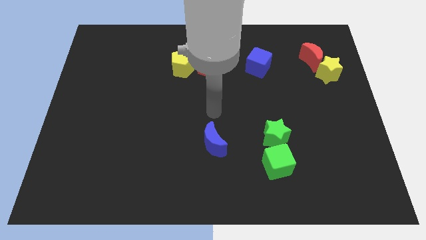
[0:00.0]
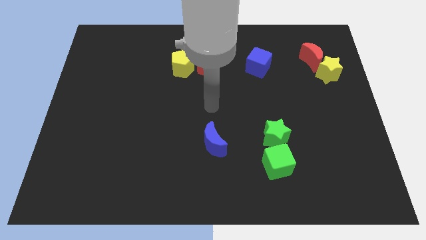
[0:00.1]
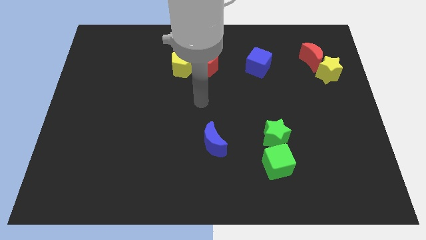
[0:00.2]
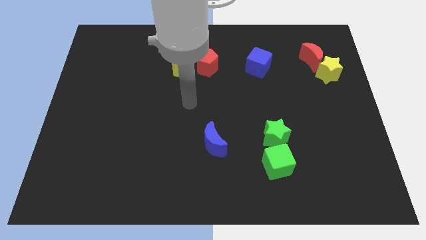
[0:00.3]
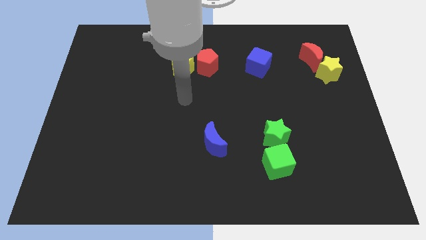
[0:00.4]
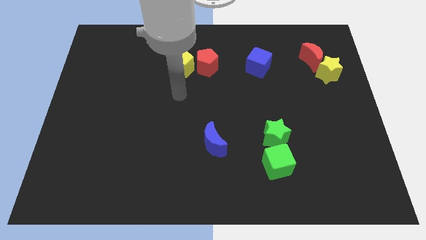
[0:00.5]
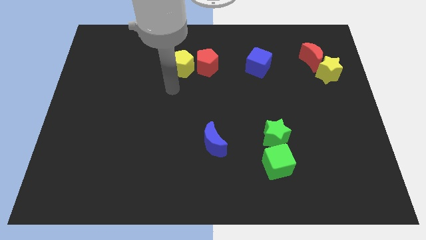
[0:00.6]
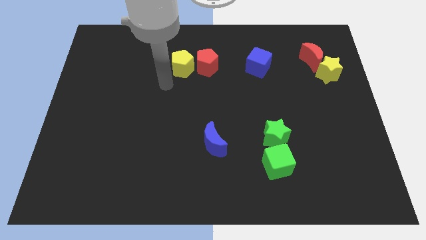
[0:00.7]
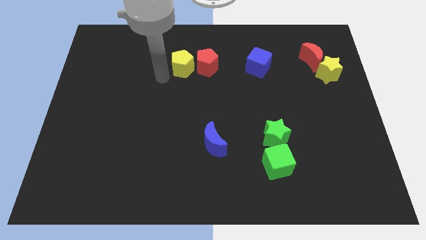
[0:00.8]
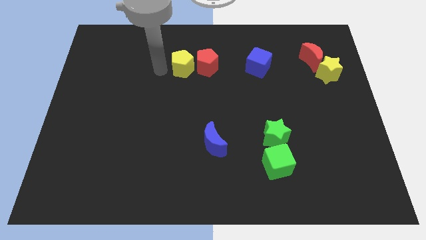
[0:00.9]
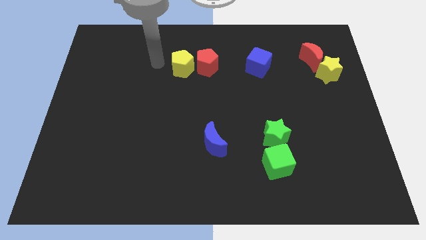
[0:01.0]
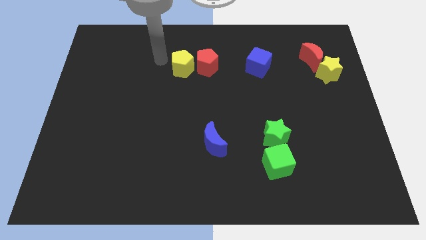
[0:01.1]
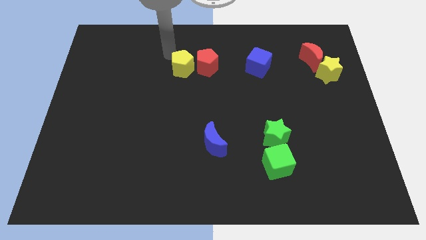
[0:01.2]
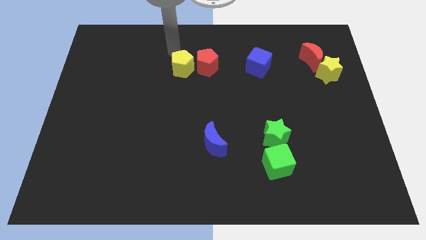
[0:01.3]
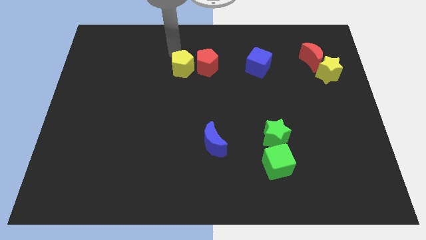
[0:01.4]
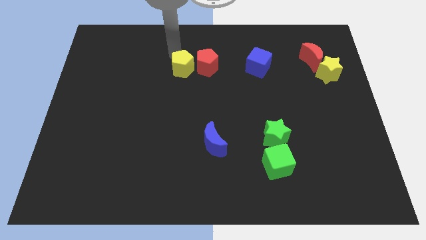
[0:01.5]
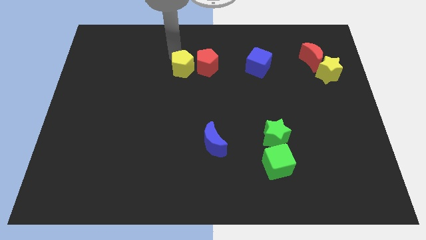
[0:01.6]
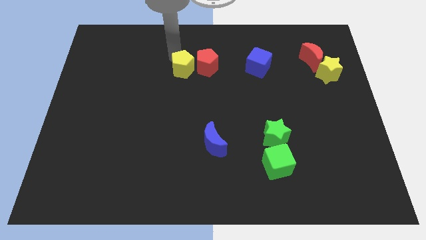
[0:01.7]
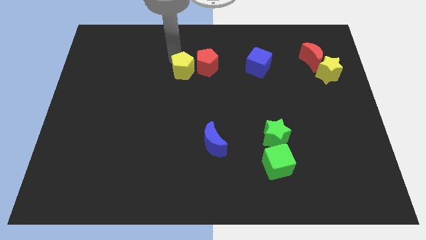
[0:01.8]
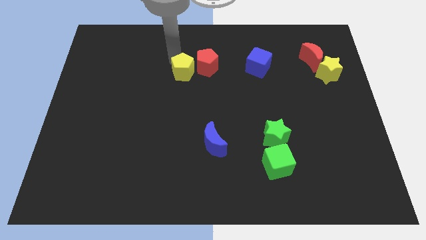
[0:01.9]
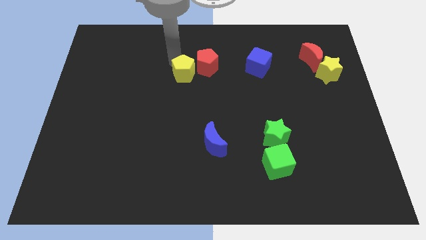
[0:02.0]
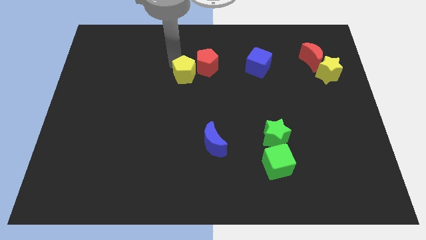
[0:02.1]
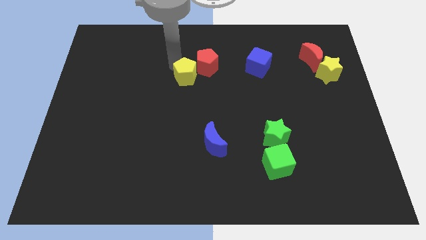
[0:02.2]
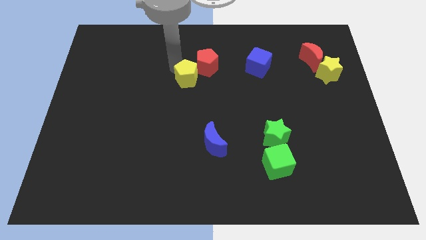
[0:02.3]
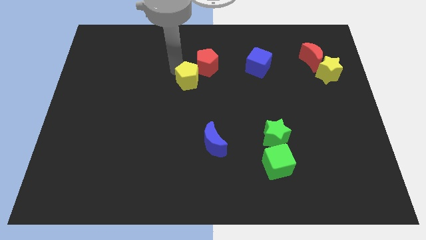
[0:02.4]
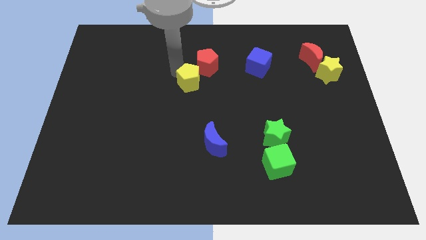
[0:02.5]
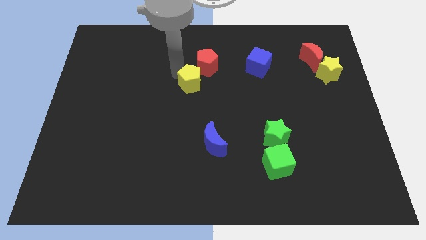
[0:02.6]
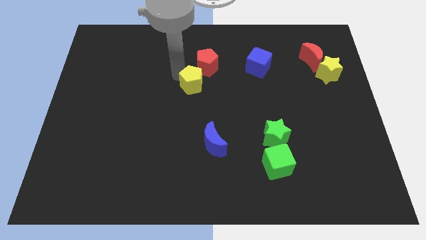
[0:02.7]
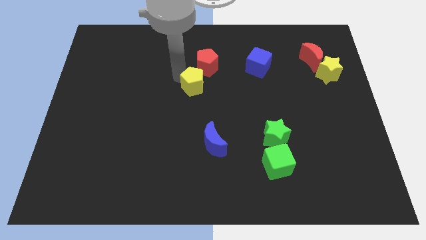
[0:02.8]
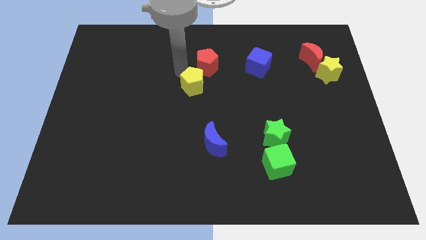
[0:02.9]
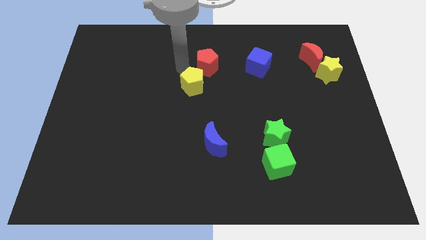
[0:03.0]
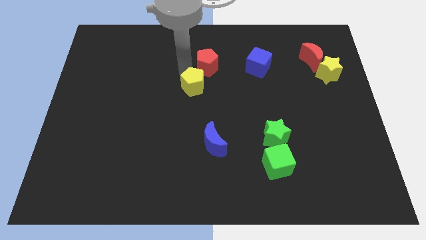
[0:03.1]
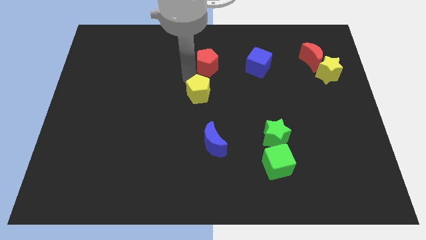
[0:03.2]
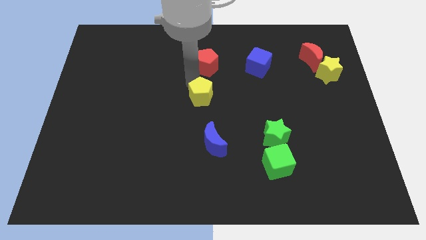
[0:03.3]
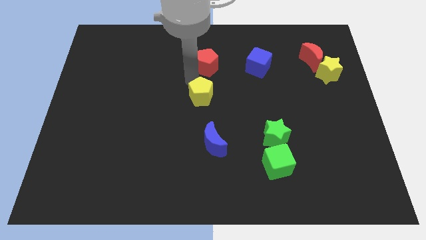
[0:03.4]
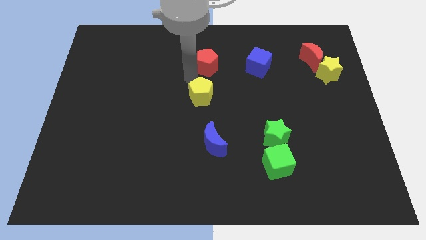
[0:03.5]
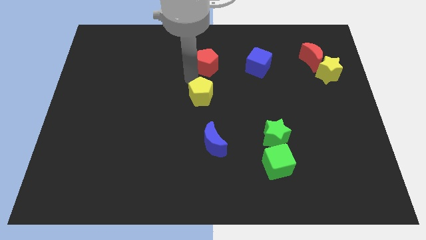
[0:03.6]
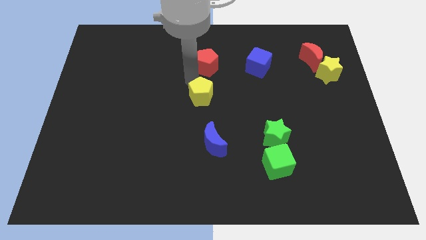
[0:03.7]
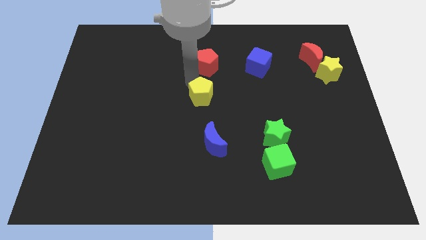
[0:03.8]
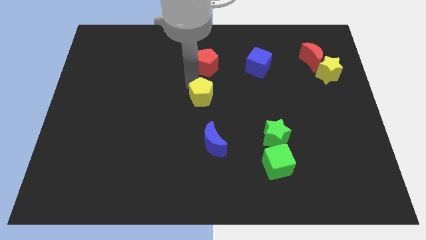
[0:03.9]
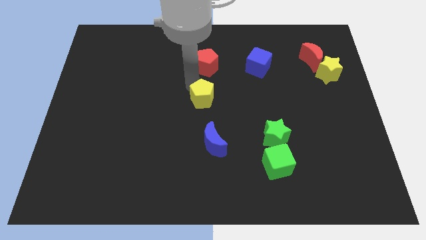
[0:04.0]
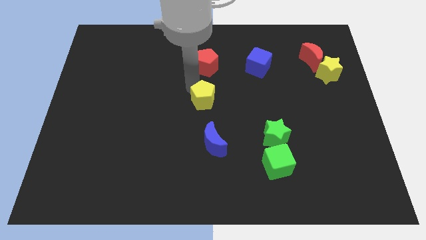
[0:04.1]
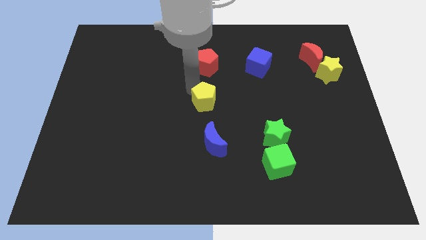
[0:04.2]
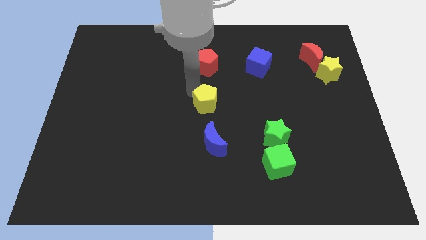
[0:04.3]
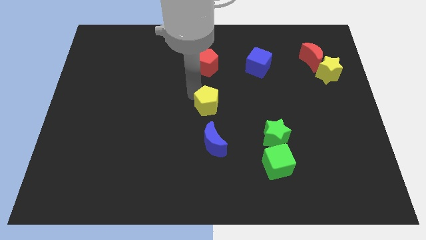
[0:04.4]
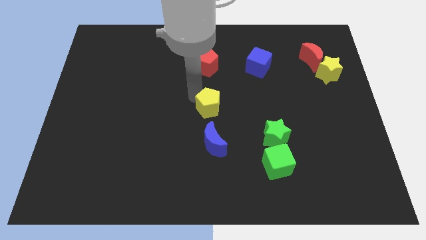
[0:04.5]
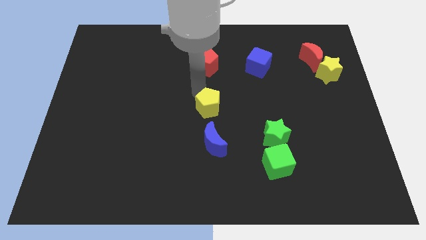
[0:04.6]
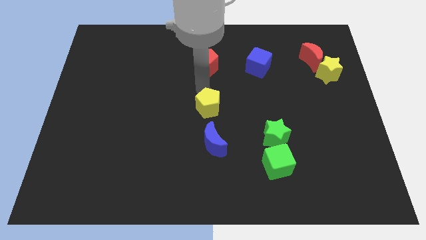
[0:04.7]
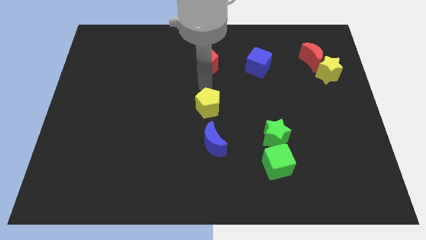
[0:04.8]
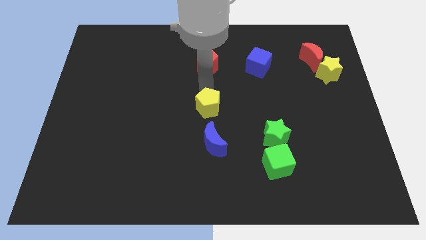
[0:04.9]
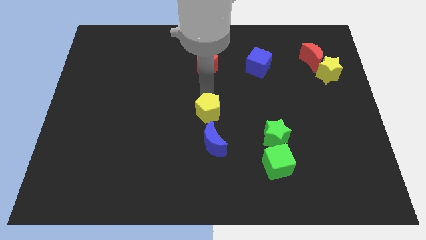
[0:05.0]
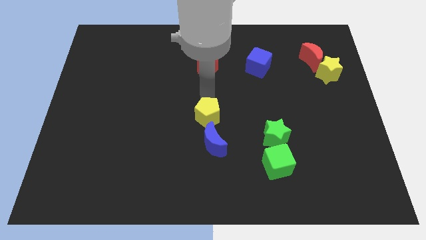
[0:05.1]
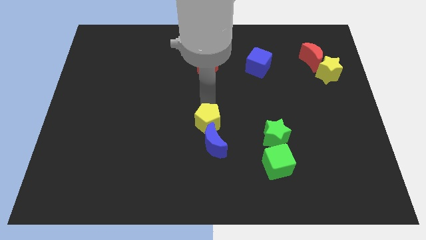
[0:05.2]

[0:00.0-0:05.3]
move the yellow pentagon close to the blue moon

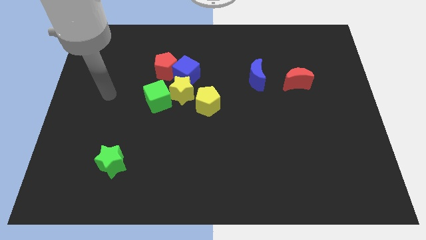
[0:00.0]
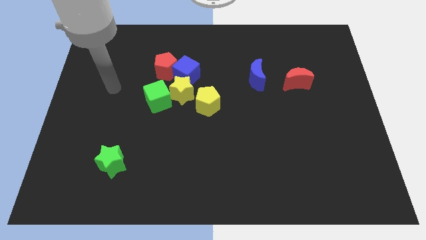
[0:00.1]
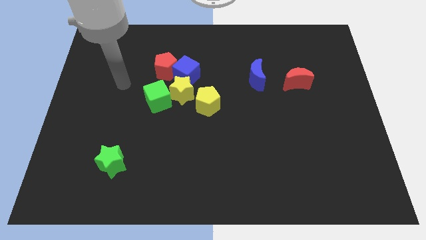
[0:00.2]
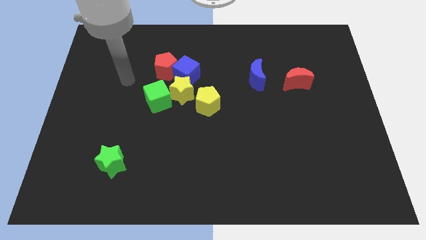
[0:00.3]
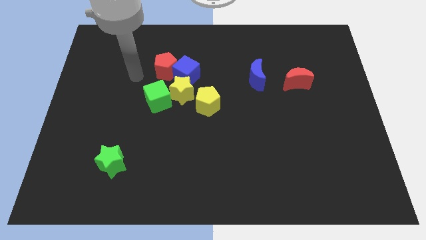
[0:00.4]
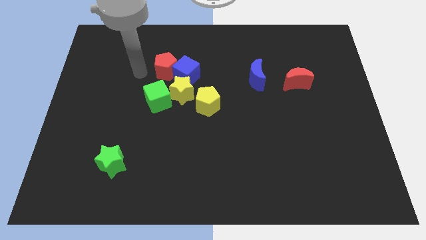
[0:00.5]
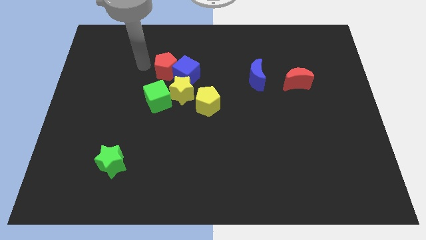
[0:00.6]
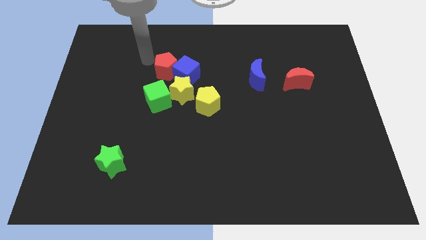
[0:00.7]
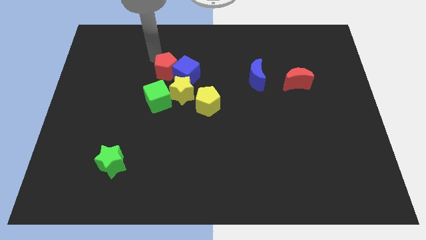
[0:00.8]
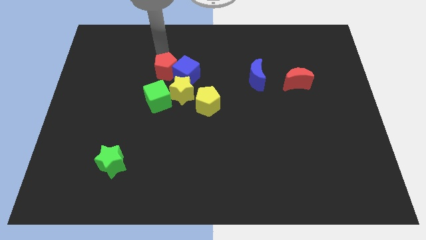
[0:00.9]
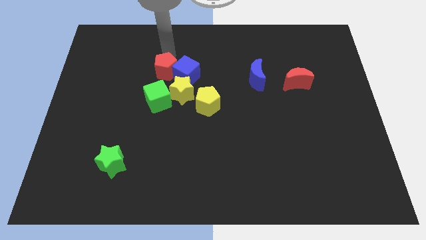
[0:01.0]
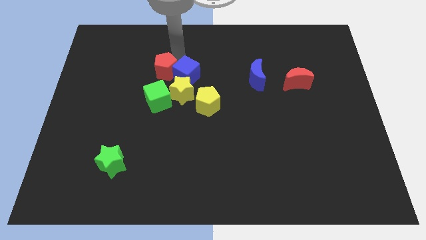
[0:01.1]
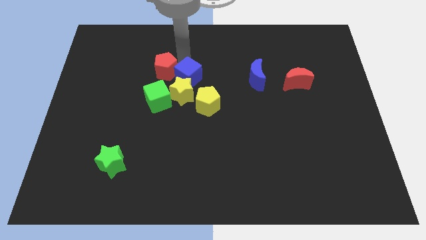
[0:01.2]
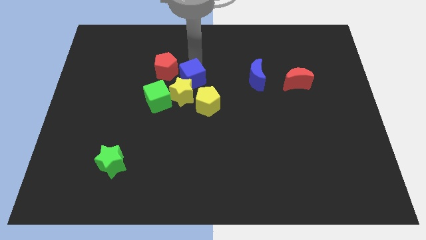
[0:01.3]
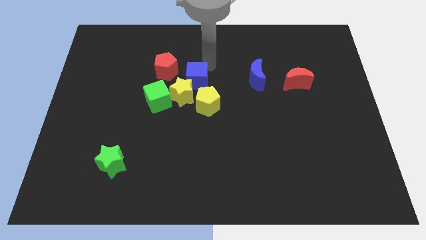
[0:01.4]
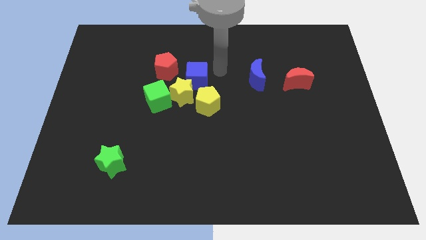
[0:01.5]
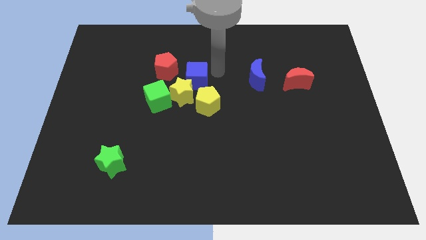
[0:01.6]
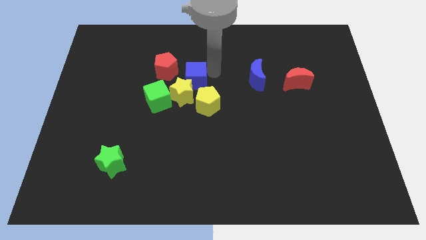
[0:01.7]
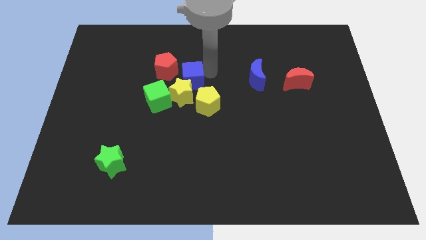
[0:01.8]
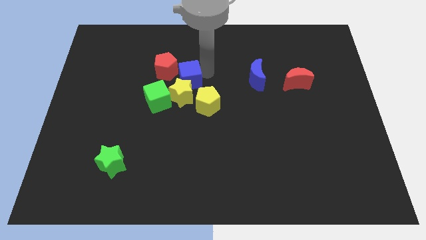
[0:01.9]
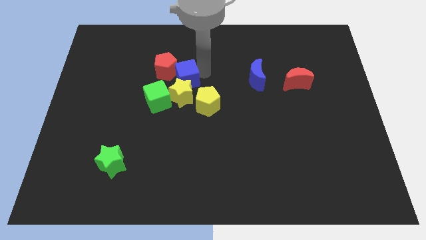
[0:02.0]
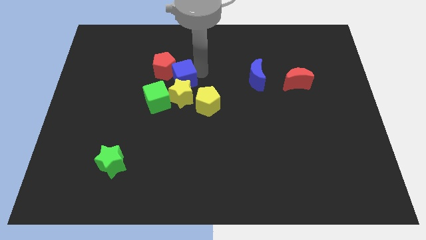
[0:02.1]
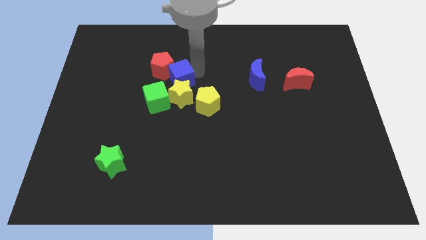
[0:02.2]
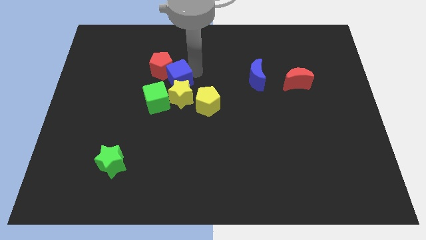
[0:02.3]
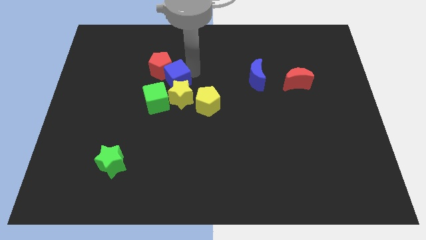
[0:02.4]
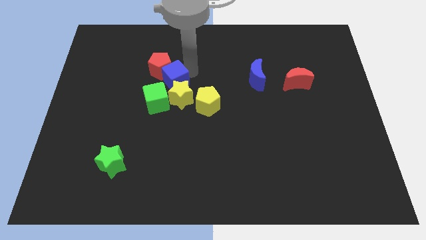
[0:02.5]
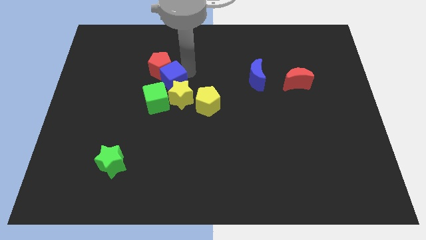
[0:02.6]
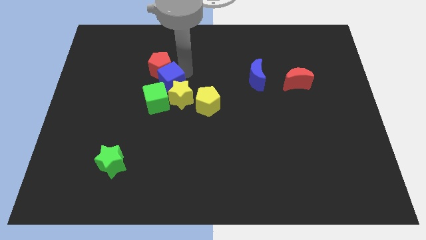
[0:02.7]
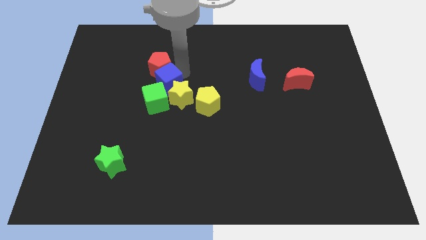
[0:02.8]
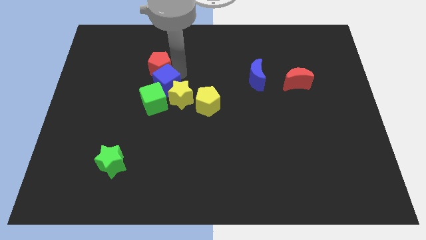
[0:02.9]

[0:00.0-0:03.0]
put the blue cube to the green cube
